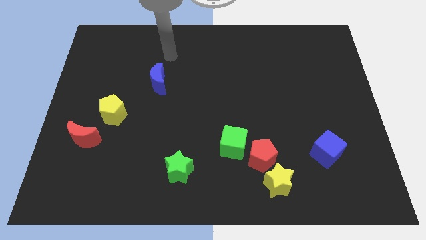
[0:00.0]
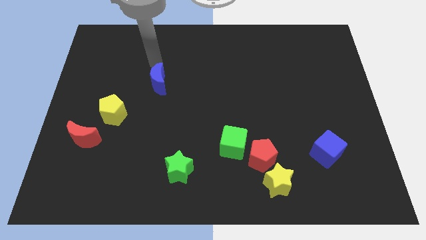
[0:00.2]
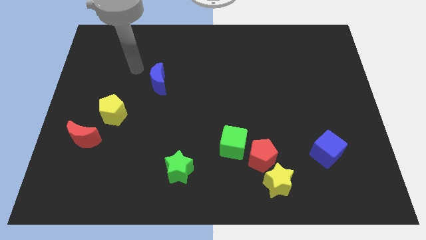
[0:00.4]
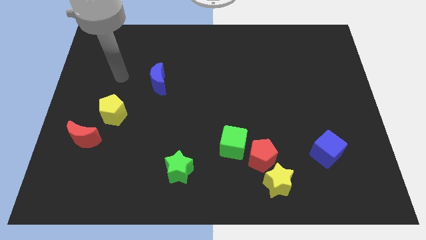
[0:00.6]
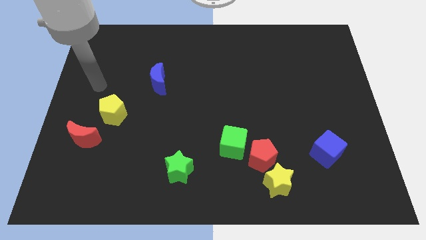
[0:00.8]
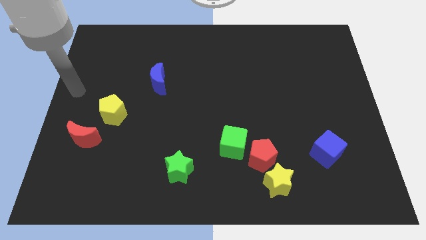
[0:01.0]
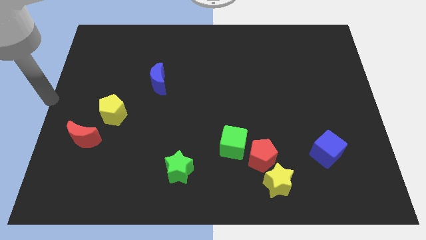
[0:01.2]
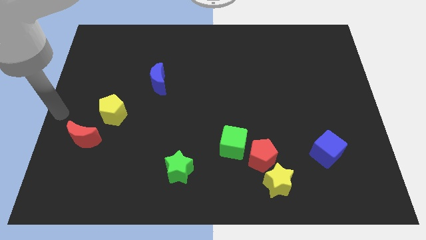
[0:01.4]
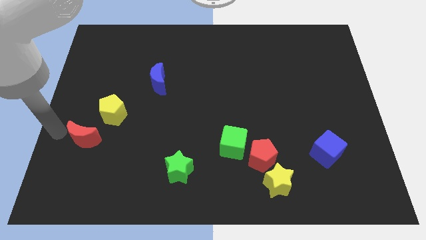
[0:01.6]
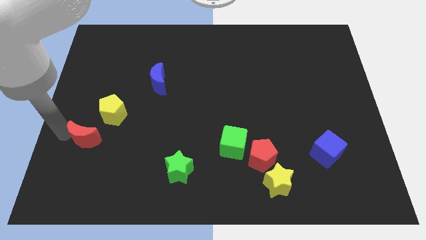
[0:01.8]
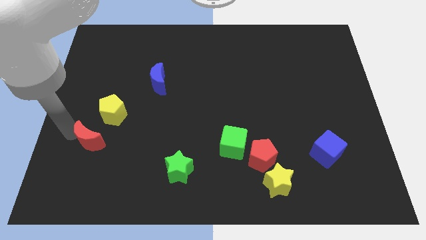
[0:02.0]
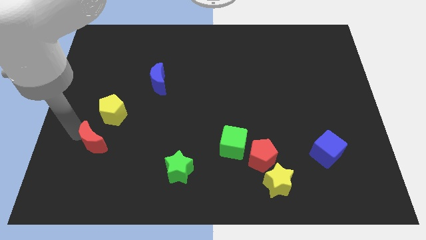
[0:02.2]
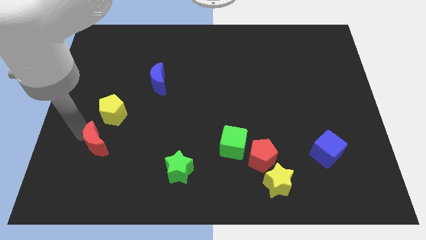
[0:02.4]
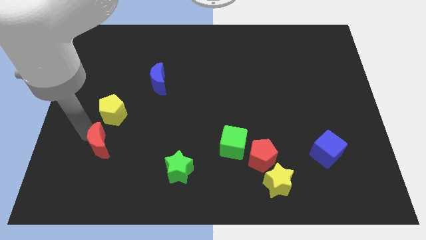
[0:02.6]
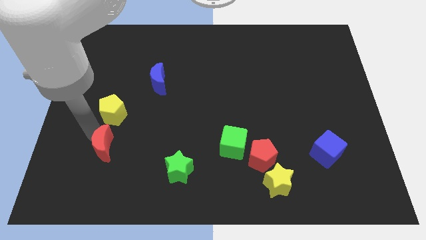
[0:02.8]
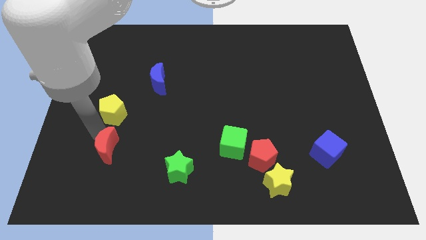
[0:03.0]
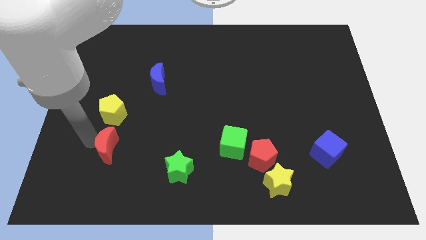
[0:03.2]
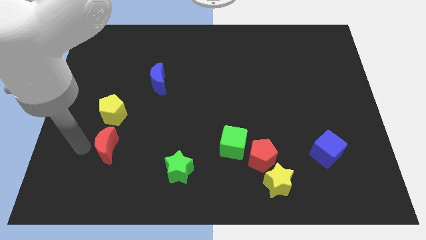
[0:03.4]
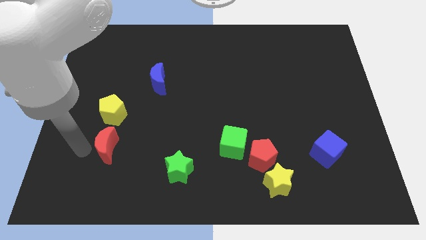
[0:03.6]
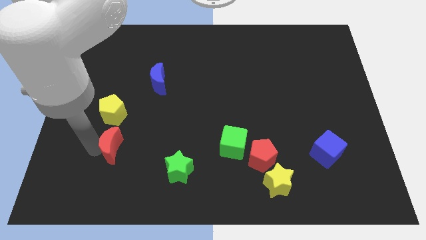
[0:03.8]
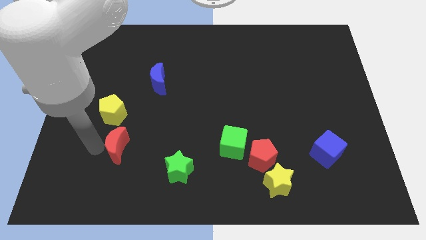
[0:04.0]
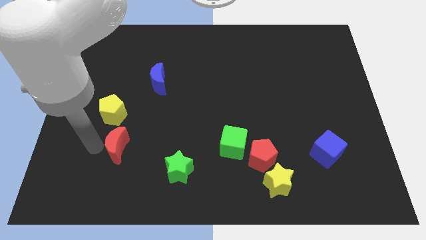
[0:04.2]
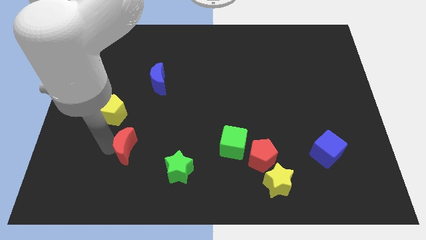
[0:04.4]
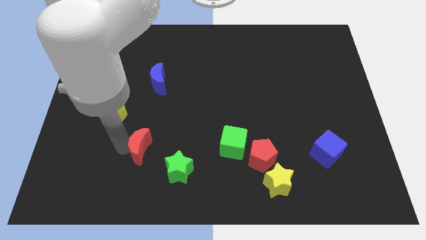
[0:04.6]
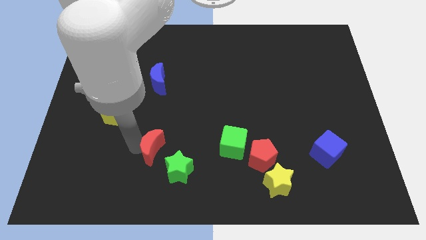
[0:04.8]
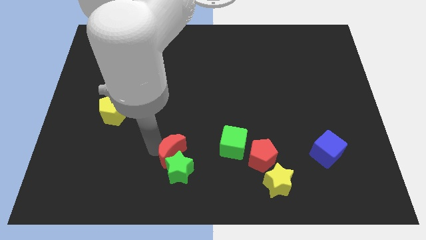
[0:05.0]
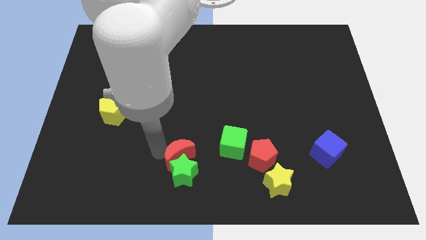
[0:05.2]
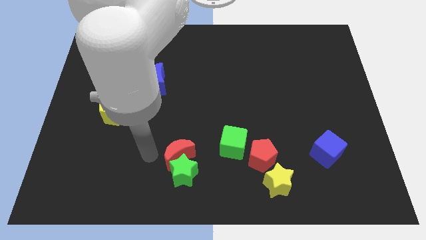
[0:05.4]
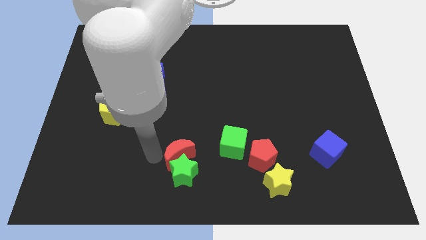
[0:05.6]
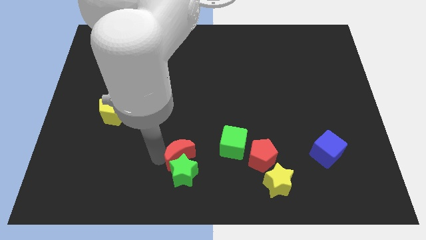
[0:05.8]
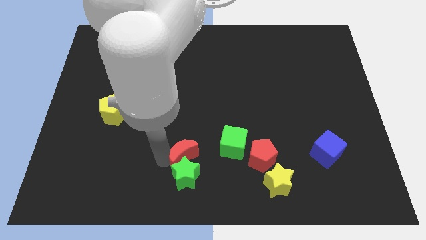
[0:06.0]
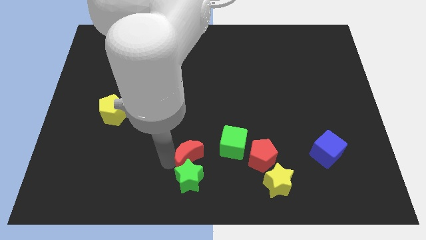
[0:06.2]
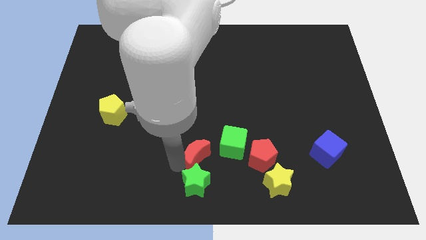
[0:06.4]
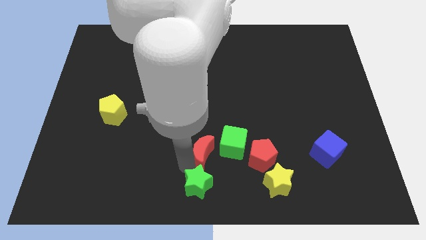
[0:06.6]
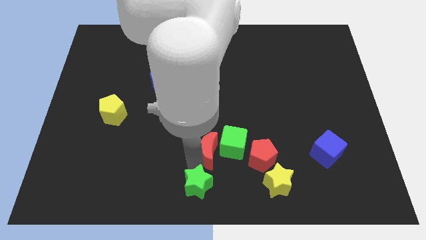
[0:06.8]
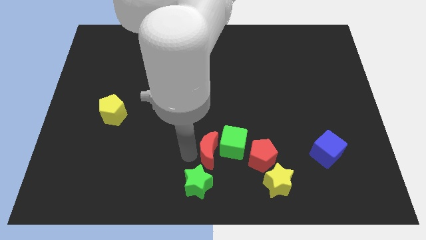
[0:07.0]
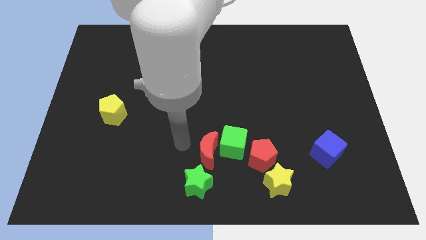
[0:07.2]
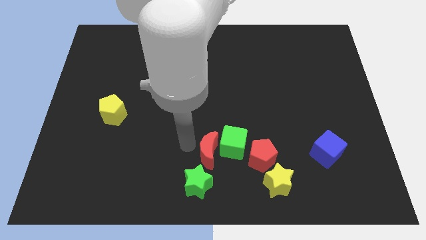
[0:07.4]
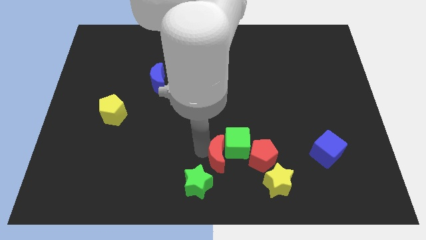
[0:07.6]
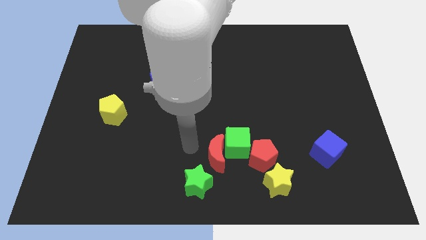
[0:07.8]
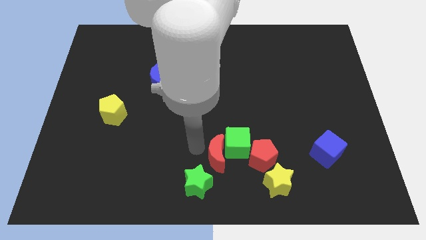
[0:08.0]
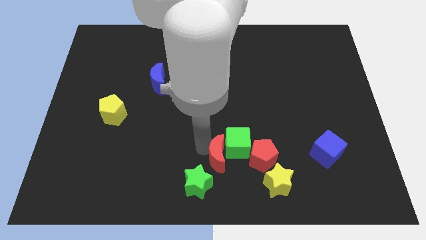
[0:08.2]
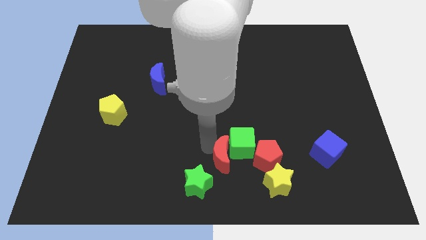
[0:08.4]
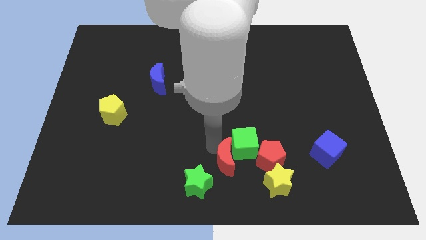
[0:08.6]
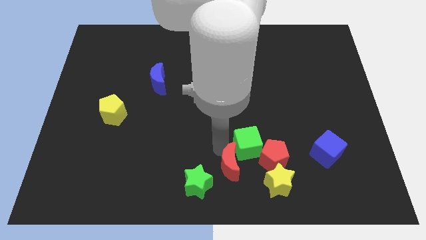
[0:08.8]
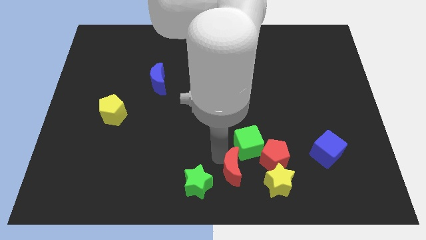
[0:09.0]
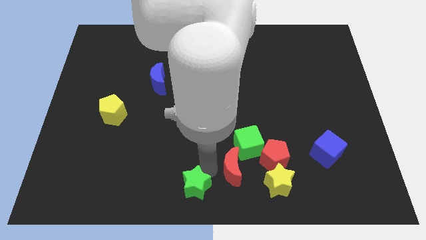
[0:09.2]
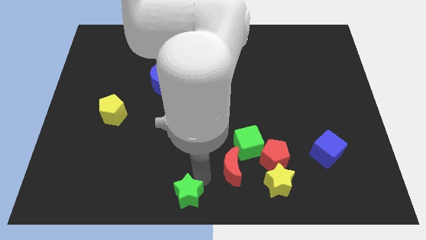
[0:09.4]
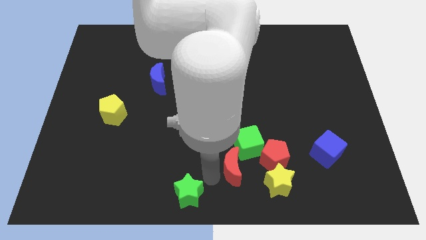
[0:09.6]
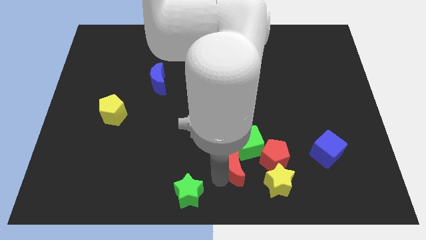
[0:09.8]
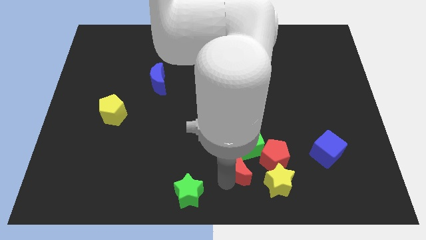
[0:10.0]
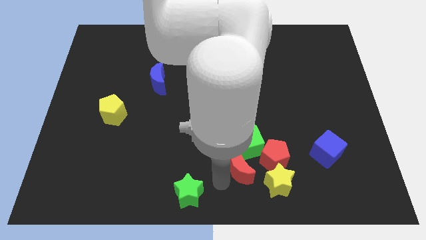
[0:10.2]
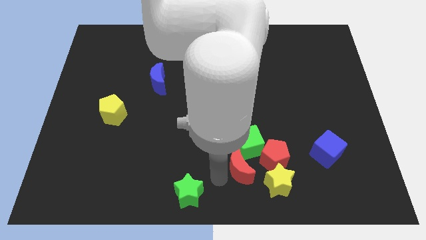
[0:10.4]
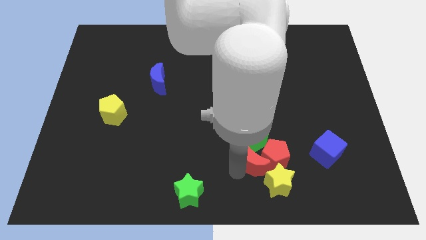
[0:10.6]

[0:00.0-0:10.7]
push the red moon next to the red pentagon

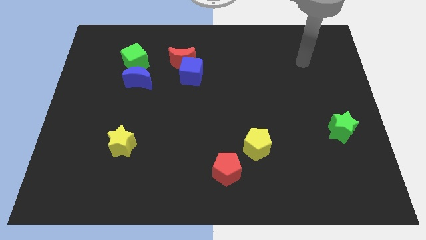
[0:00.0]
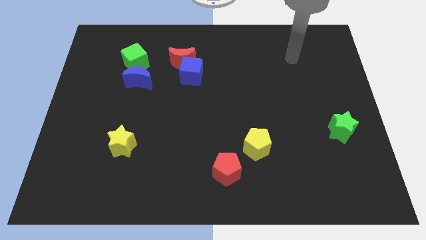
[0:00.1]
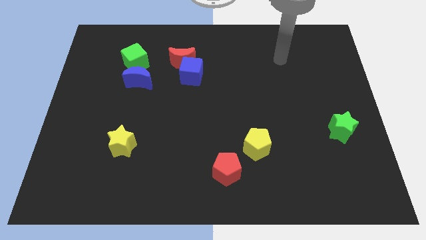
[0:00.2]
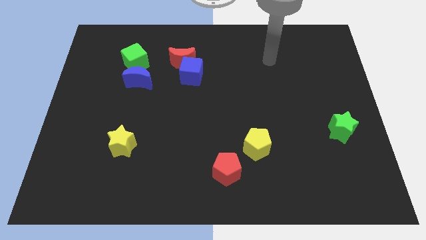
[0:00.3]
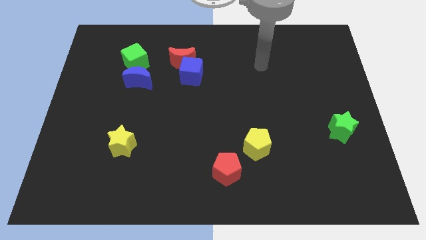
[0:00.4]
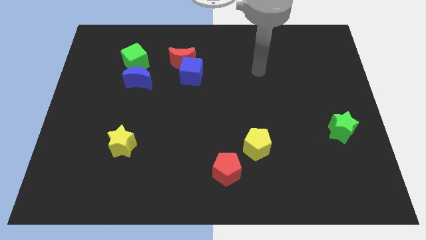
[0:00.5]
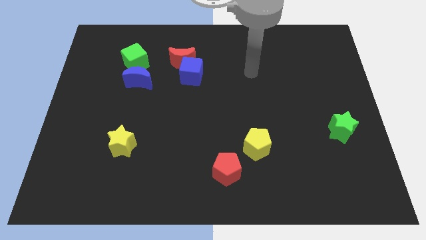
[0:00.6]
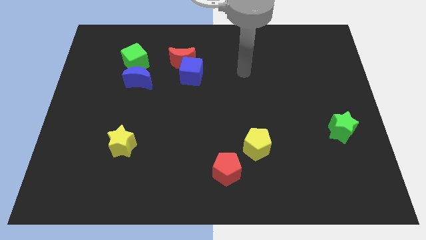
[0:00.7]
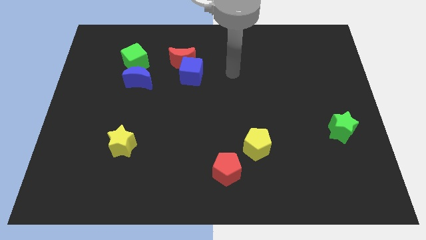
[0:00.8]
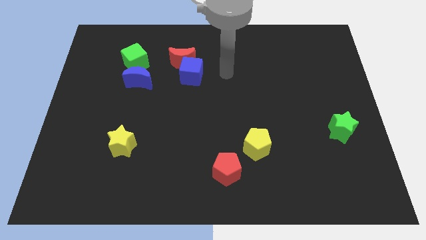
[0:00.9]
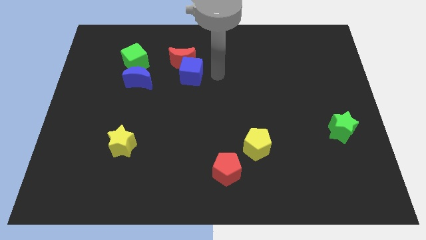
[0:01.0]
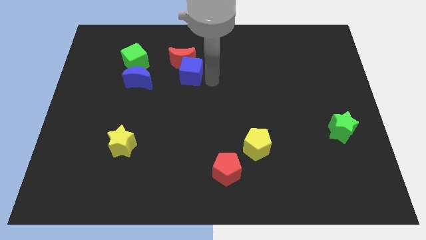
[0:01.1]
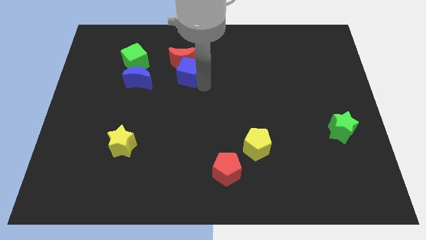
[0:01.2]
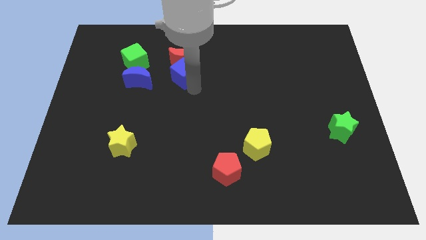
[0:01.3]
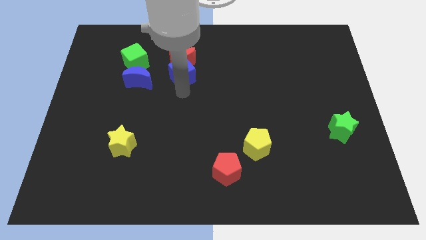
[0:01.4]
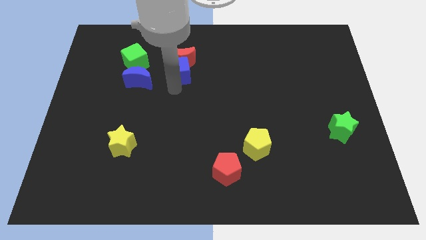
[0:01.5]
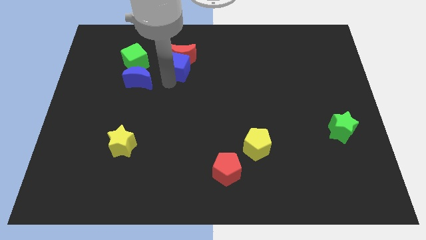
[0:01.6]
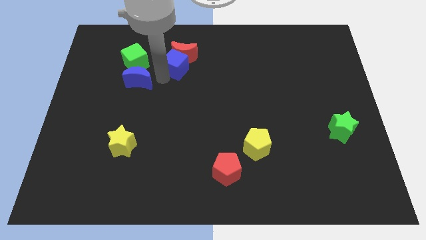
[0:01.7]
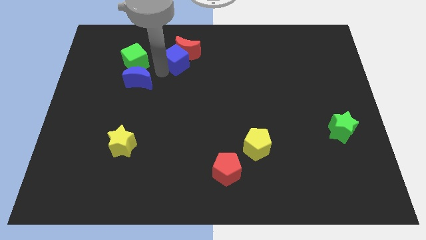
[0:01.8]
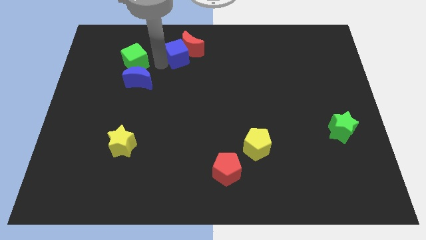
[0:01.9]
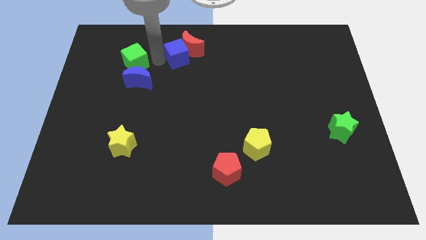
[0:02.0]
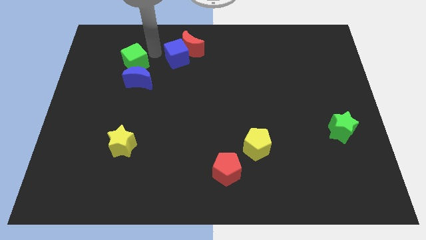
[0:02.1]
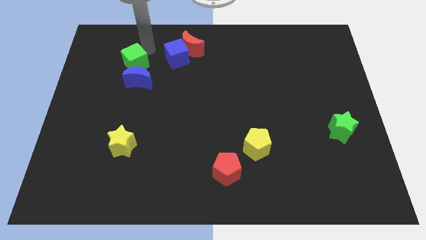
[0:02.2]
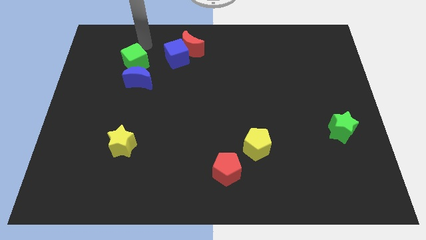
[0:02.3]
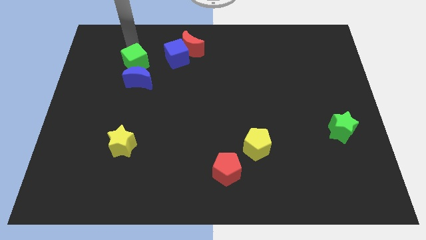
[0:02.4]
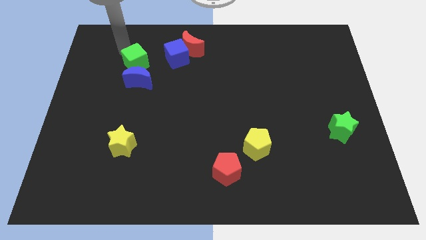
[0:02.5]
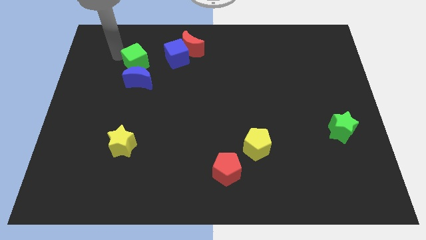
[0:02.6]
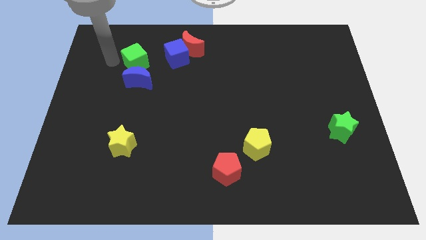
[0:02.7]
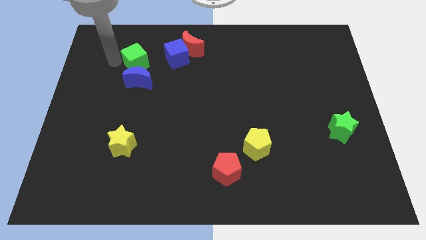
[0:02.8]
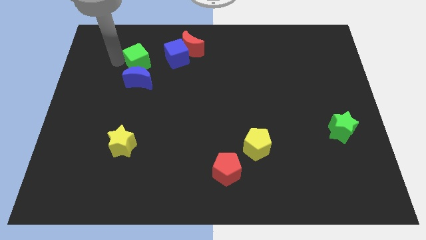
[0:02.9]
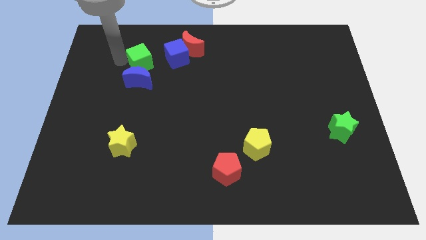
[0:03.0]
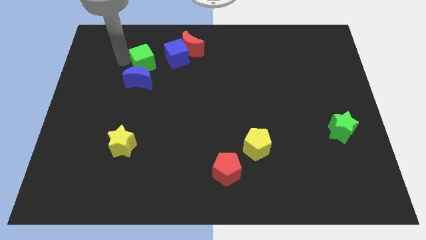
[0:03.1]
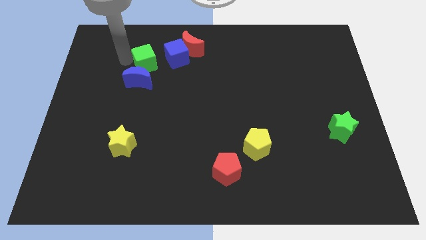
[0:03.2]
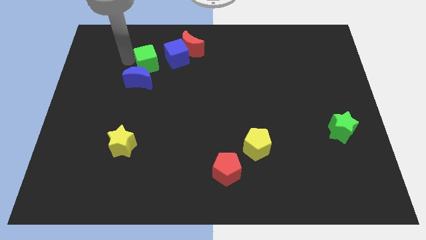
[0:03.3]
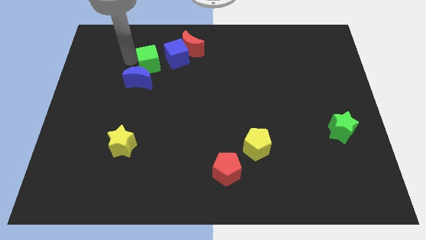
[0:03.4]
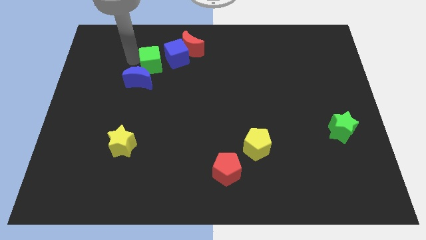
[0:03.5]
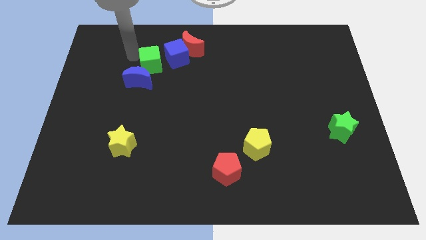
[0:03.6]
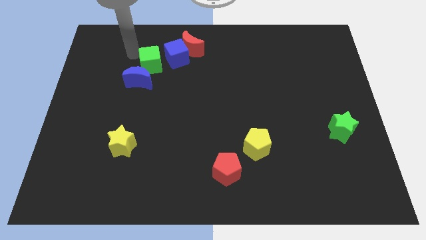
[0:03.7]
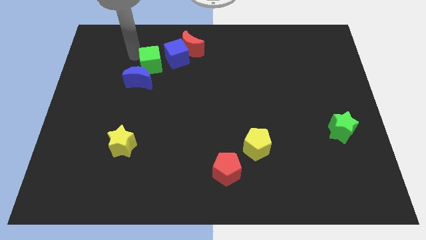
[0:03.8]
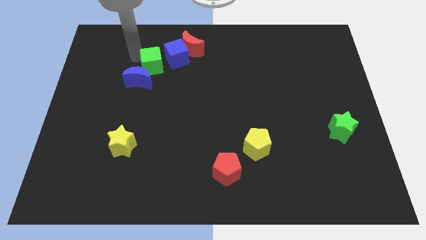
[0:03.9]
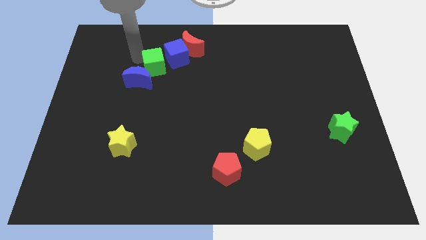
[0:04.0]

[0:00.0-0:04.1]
push the green cube to the blue cube
